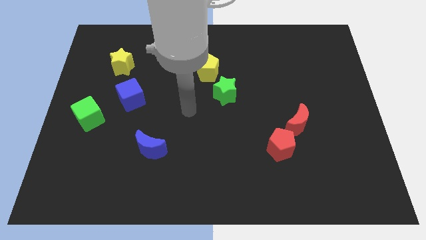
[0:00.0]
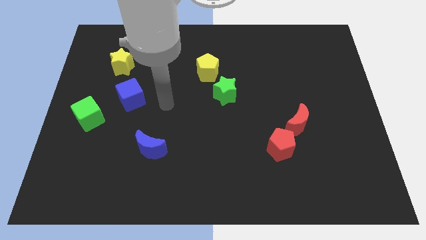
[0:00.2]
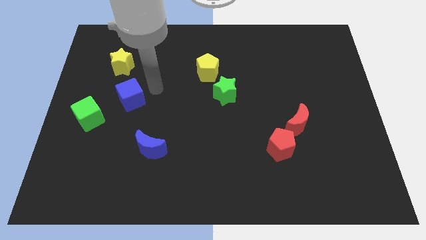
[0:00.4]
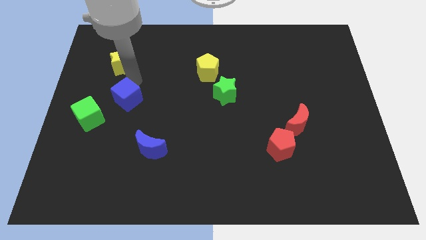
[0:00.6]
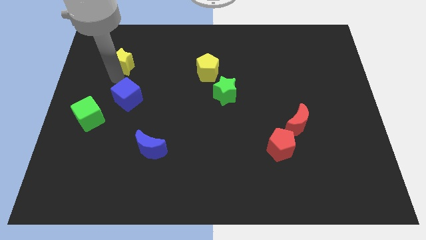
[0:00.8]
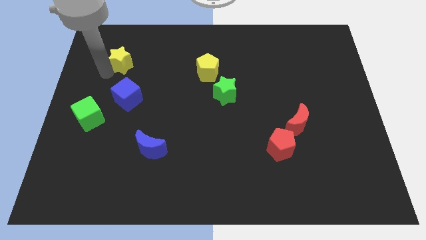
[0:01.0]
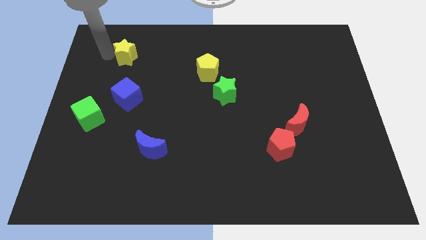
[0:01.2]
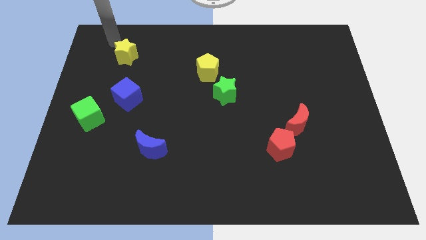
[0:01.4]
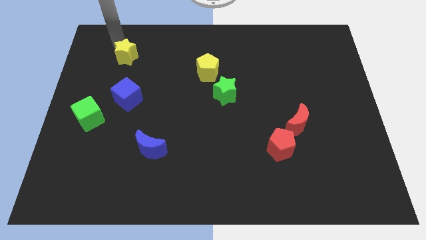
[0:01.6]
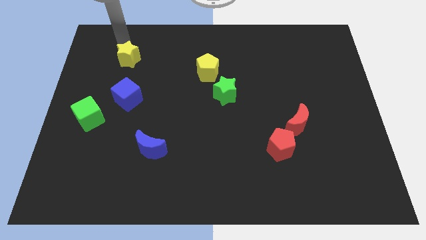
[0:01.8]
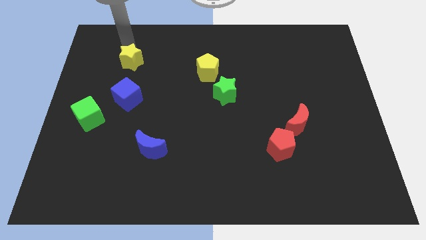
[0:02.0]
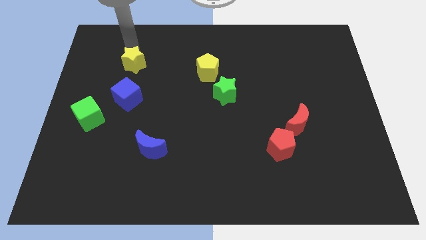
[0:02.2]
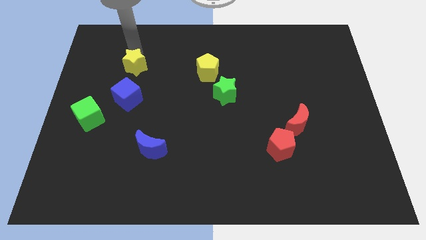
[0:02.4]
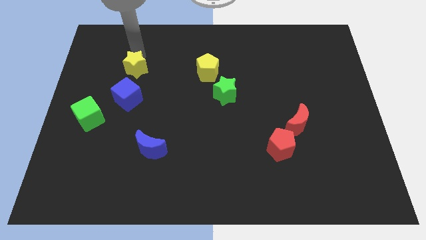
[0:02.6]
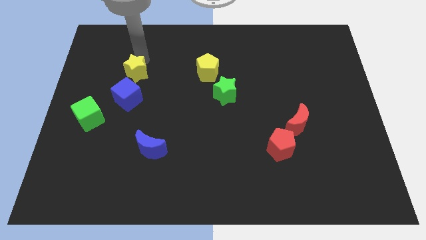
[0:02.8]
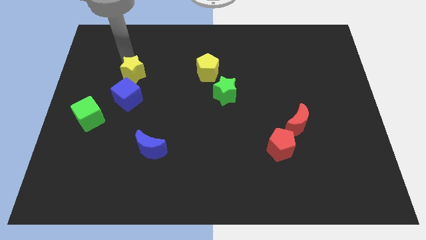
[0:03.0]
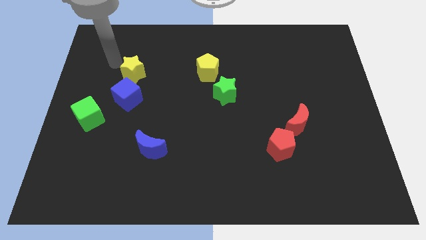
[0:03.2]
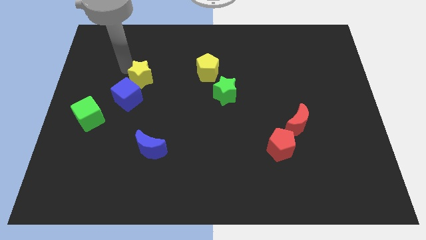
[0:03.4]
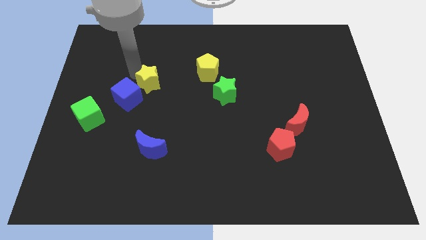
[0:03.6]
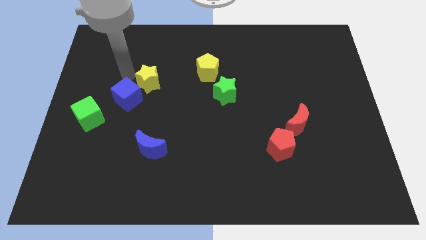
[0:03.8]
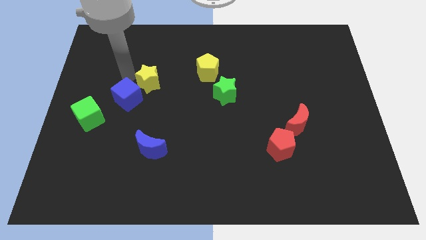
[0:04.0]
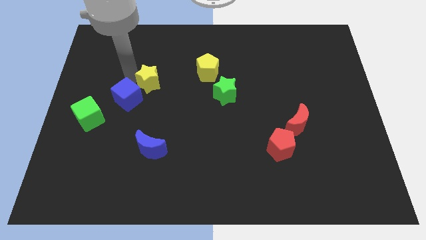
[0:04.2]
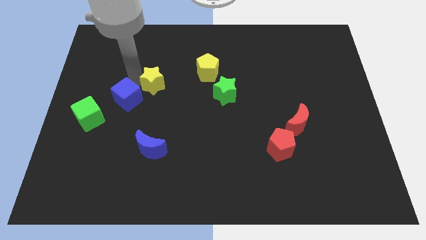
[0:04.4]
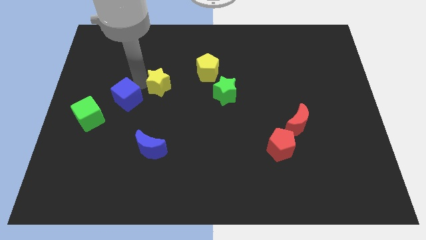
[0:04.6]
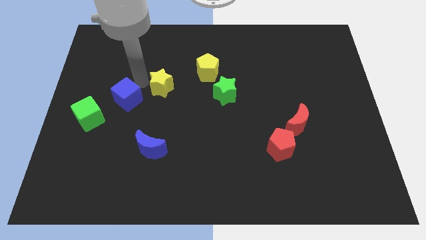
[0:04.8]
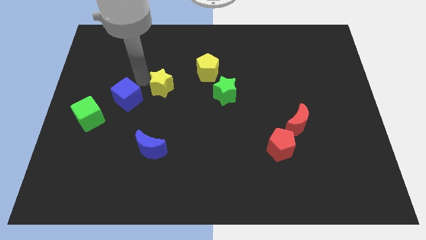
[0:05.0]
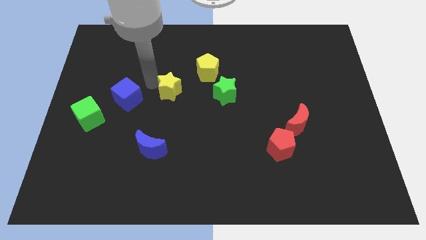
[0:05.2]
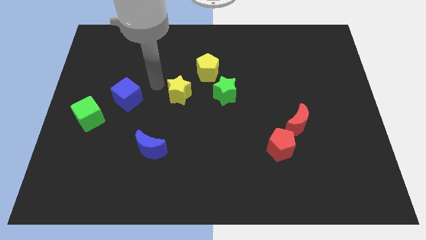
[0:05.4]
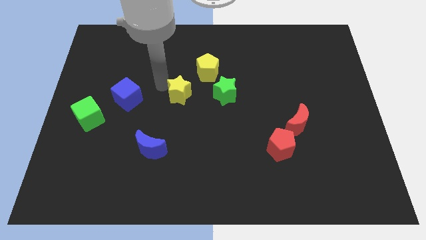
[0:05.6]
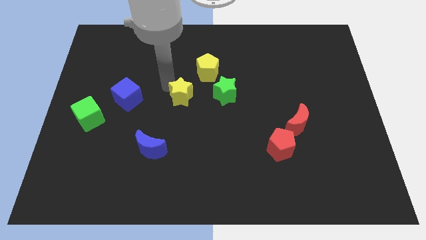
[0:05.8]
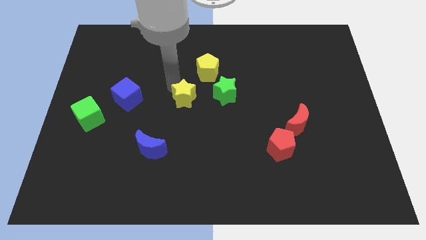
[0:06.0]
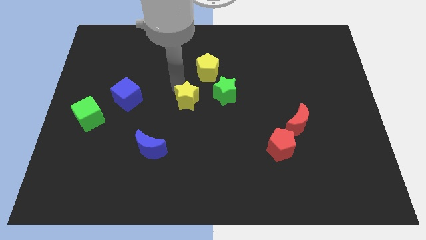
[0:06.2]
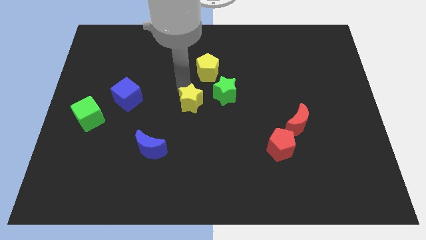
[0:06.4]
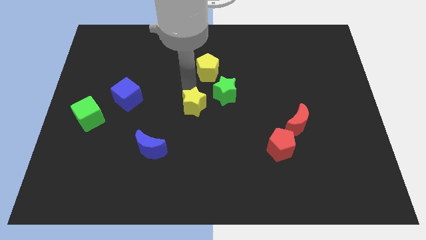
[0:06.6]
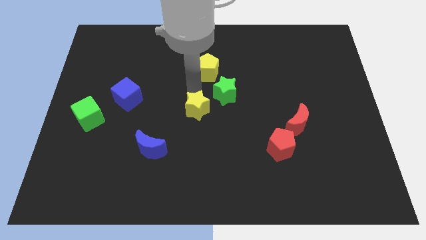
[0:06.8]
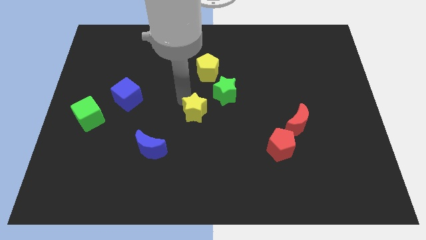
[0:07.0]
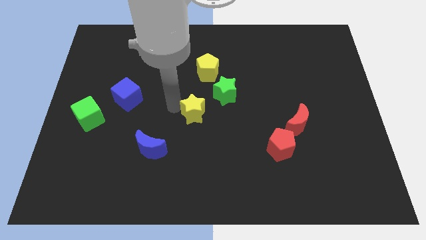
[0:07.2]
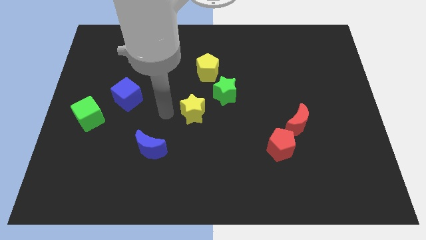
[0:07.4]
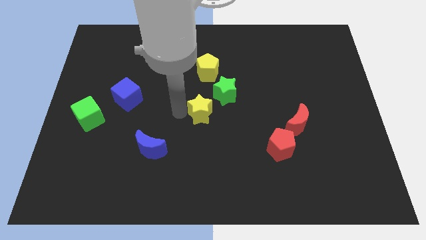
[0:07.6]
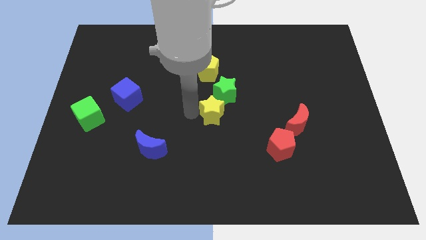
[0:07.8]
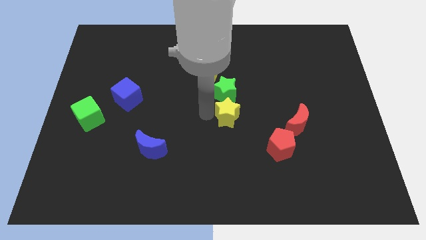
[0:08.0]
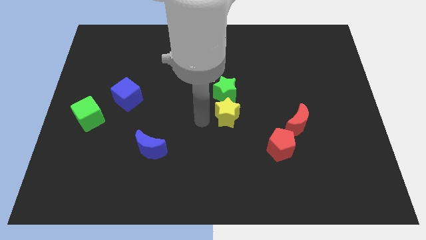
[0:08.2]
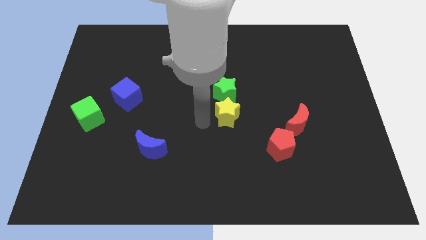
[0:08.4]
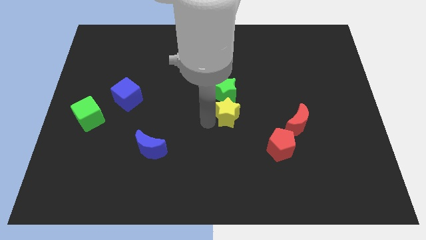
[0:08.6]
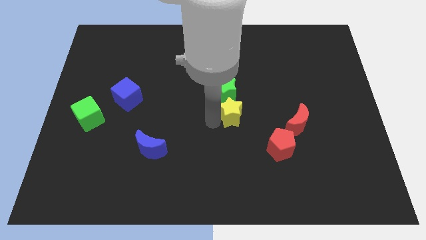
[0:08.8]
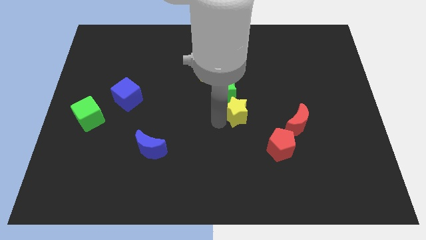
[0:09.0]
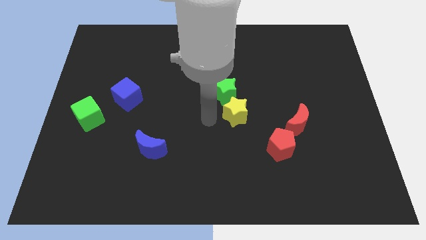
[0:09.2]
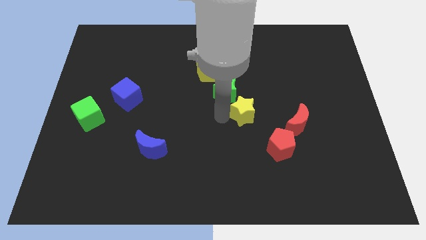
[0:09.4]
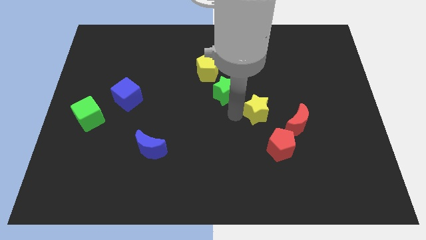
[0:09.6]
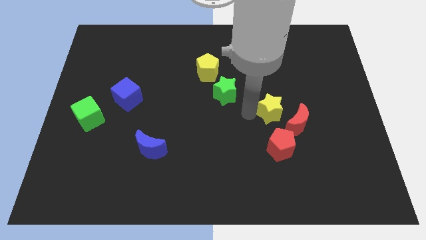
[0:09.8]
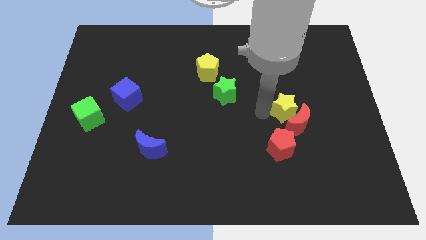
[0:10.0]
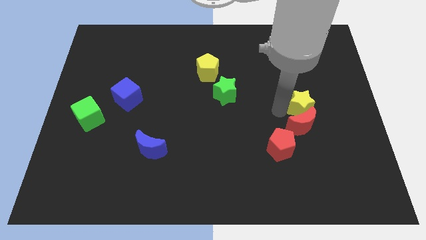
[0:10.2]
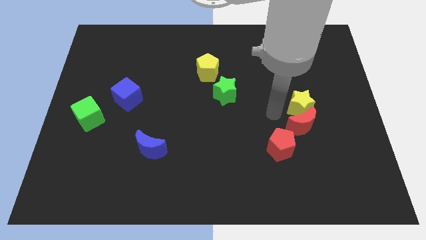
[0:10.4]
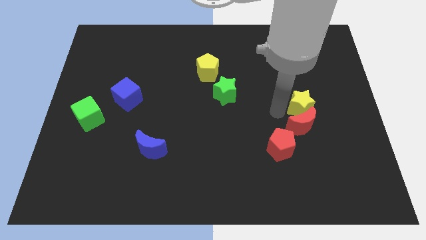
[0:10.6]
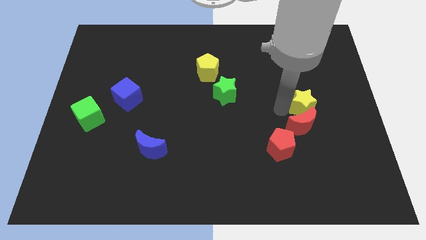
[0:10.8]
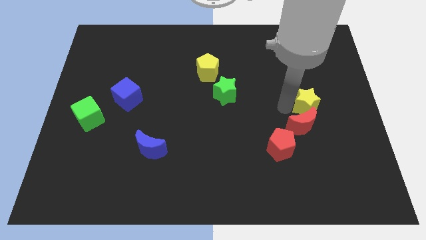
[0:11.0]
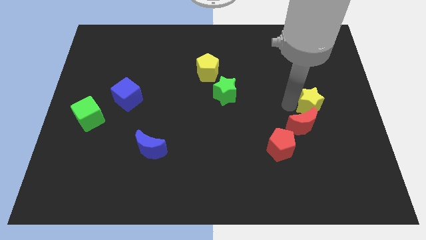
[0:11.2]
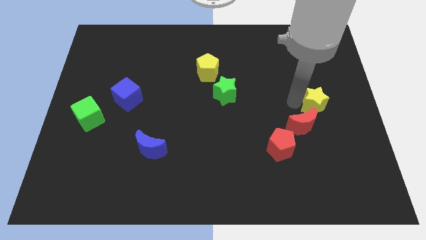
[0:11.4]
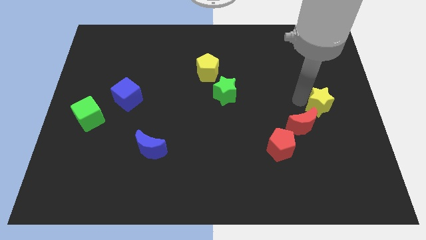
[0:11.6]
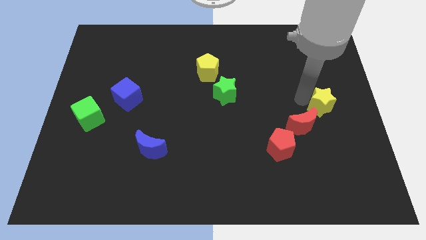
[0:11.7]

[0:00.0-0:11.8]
push the yellow star to the right side of the board

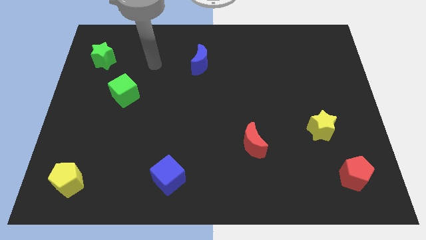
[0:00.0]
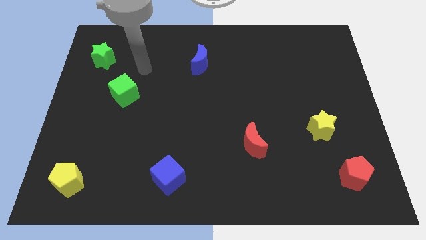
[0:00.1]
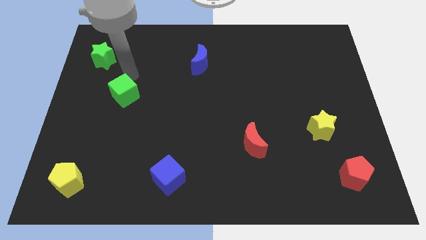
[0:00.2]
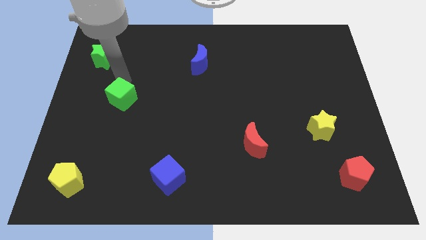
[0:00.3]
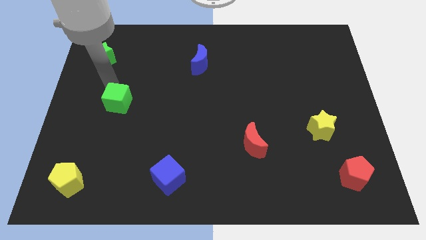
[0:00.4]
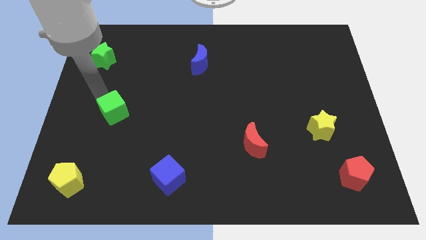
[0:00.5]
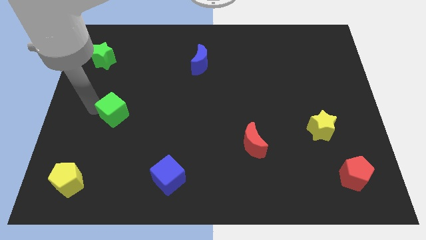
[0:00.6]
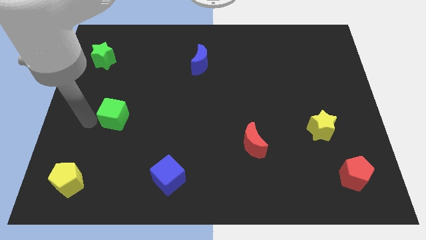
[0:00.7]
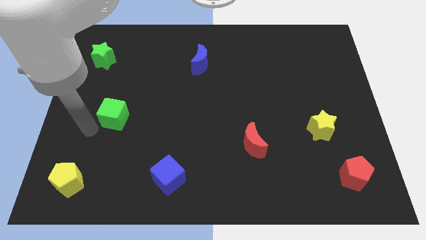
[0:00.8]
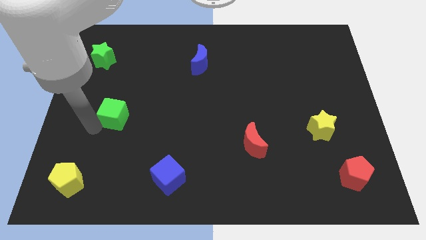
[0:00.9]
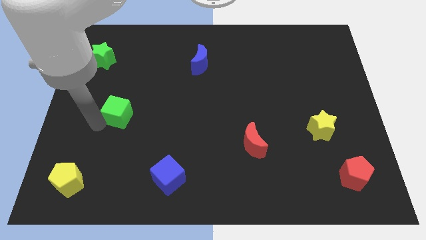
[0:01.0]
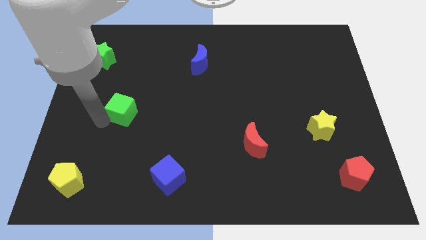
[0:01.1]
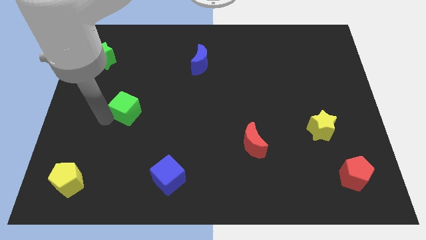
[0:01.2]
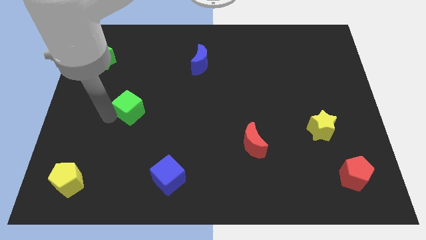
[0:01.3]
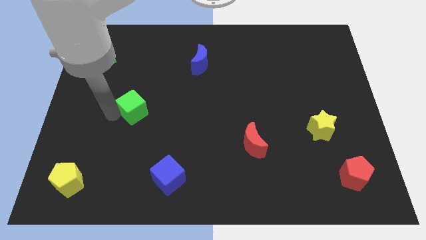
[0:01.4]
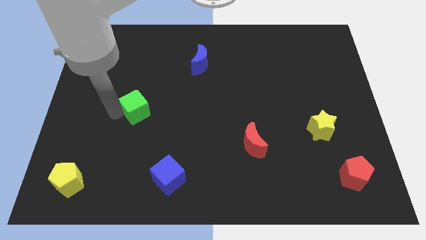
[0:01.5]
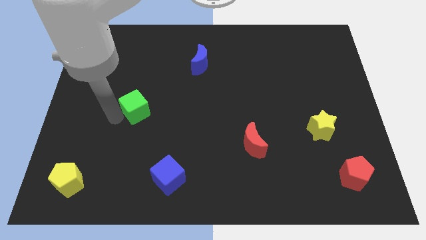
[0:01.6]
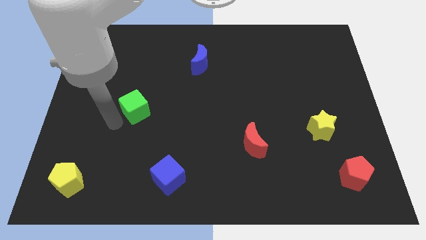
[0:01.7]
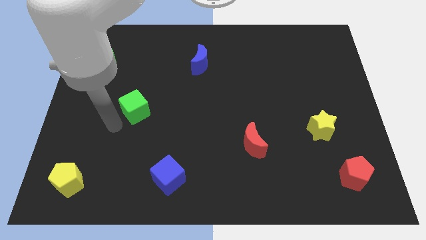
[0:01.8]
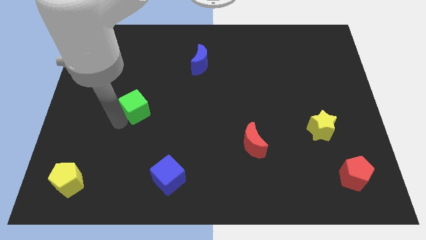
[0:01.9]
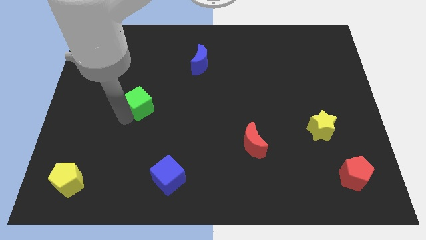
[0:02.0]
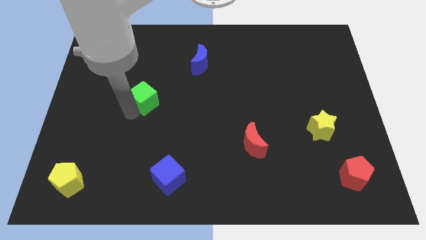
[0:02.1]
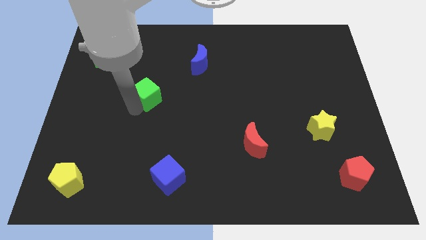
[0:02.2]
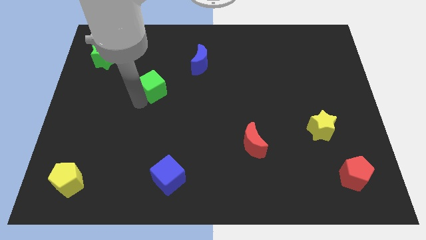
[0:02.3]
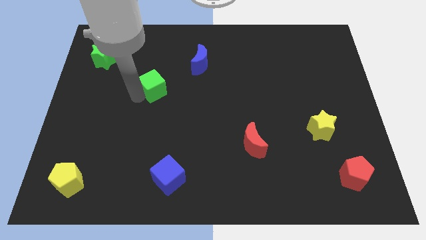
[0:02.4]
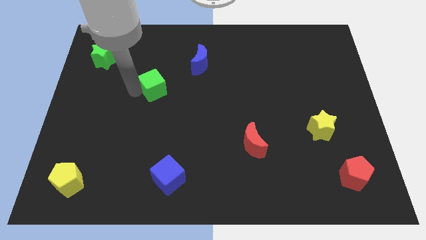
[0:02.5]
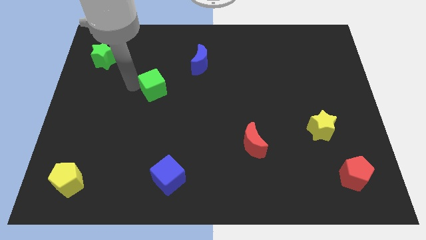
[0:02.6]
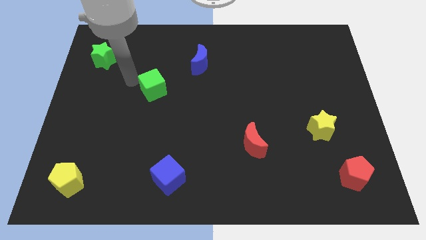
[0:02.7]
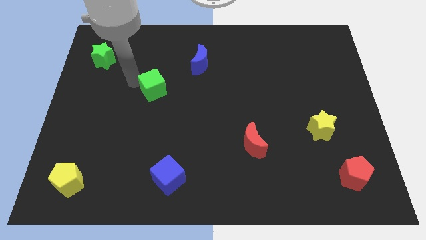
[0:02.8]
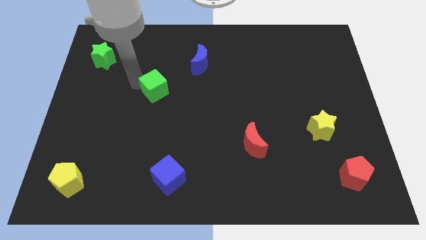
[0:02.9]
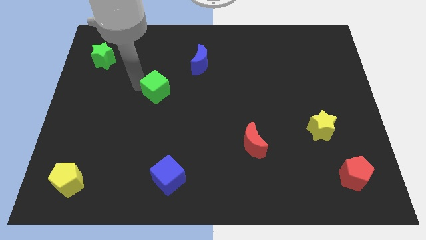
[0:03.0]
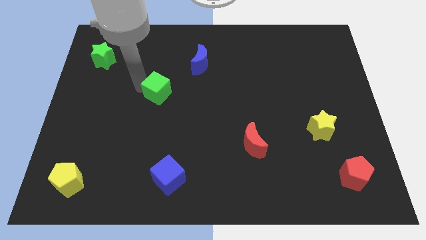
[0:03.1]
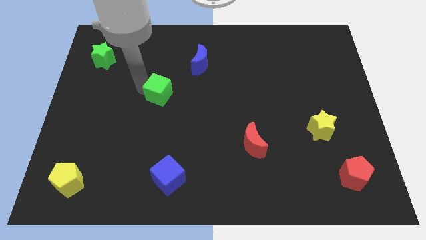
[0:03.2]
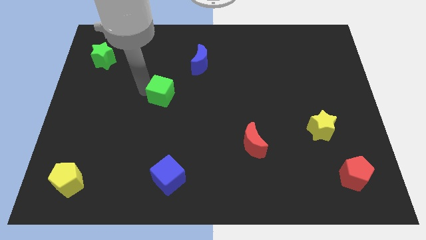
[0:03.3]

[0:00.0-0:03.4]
move the green cube to the middle of the board
